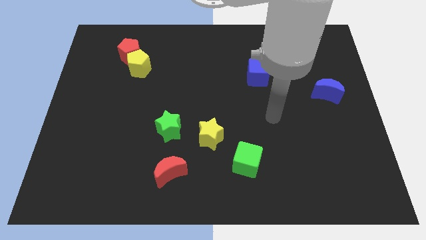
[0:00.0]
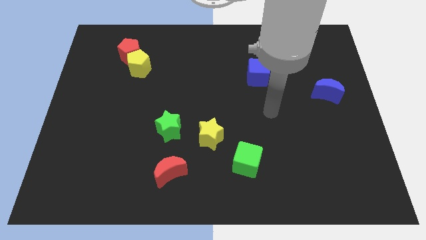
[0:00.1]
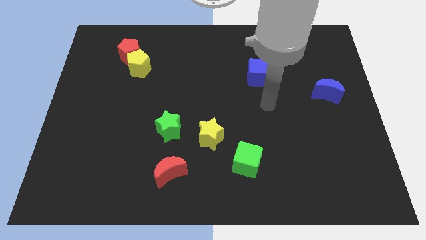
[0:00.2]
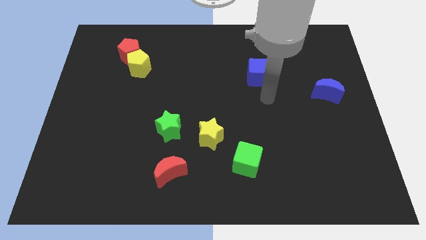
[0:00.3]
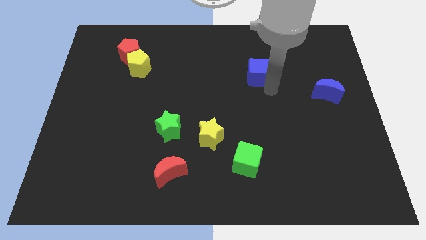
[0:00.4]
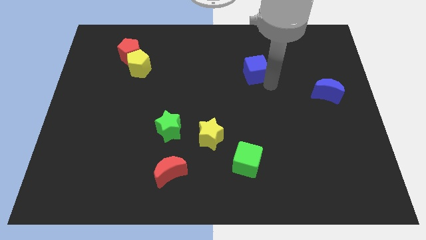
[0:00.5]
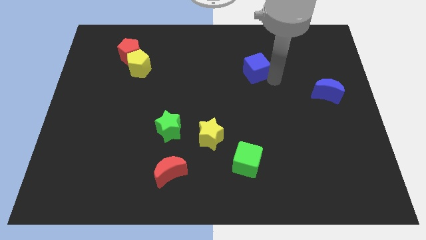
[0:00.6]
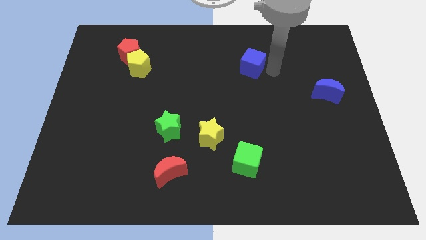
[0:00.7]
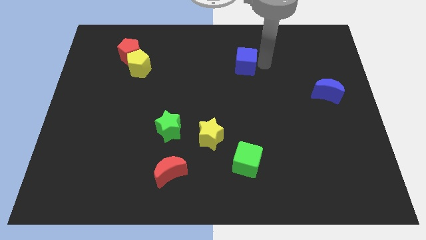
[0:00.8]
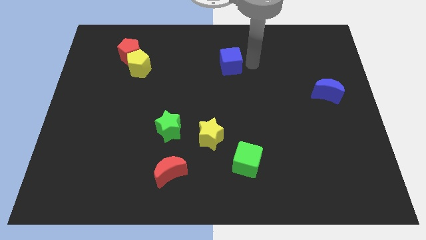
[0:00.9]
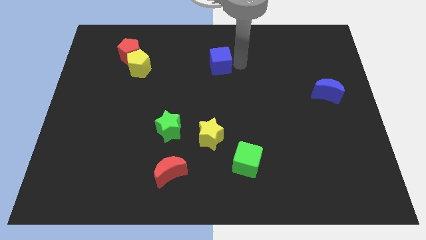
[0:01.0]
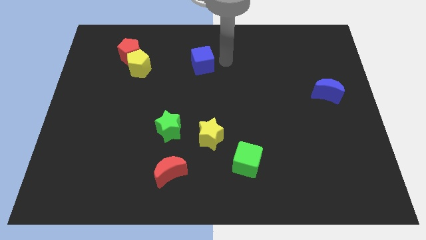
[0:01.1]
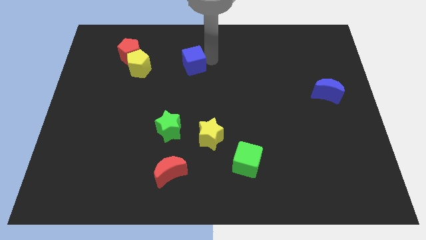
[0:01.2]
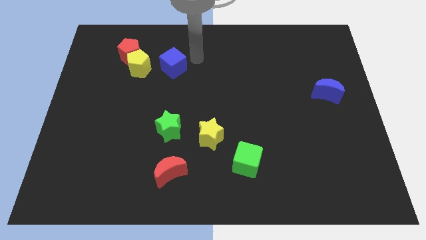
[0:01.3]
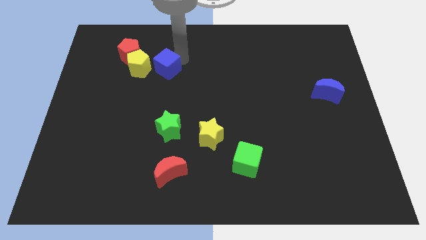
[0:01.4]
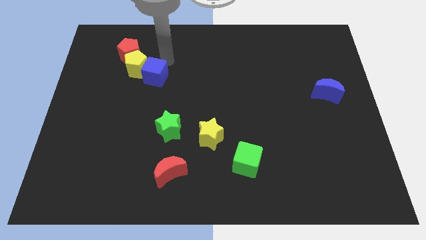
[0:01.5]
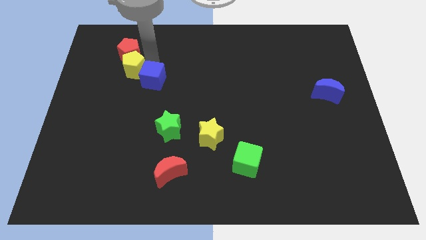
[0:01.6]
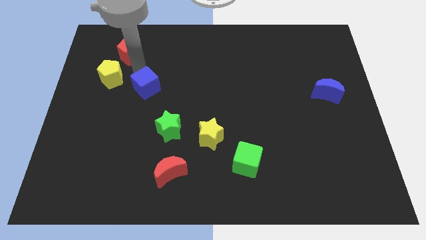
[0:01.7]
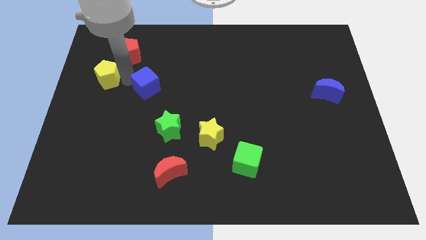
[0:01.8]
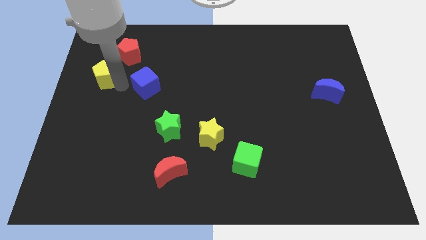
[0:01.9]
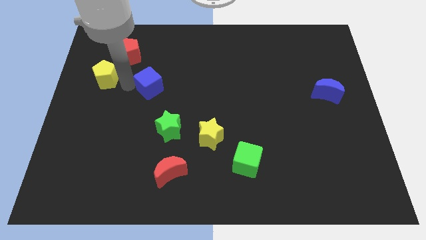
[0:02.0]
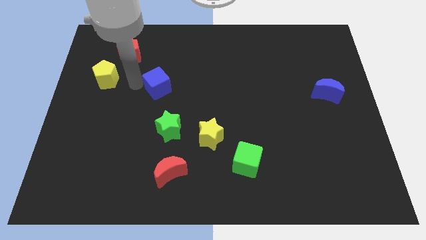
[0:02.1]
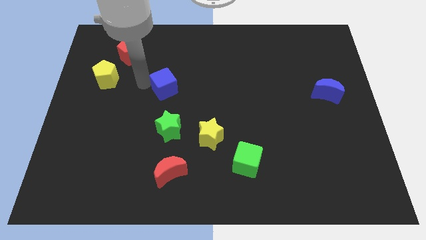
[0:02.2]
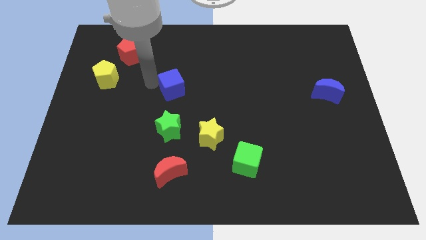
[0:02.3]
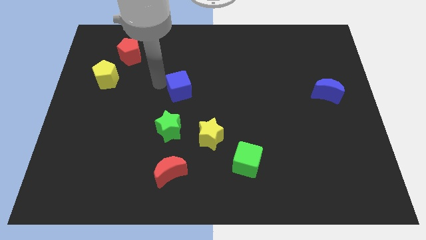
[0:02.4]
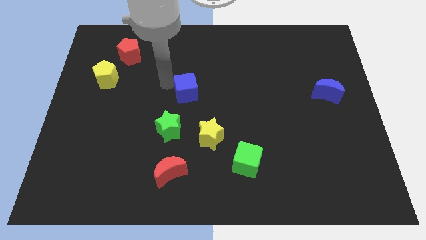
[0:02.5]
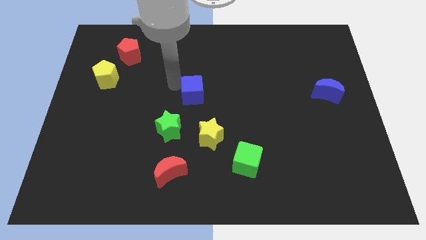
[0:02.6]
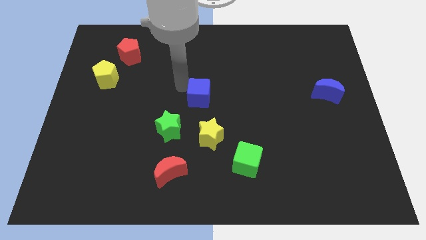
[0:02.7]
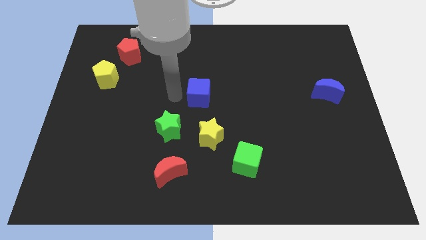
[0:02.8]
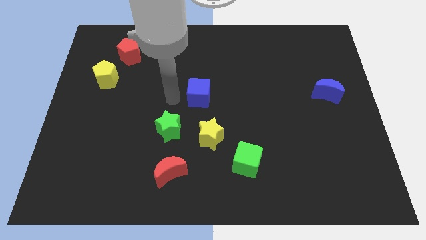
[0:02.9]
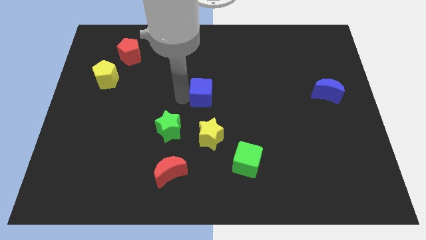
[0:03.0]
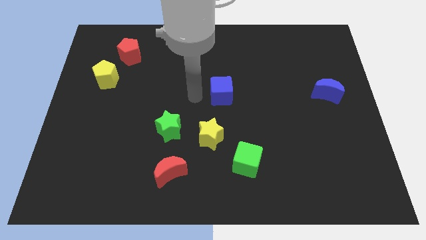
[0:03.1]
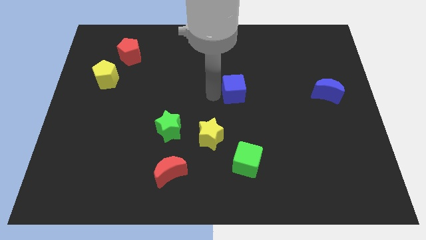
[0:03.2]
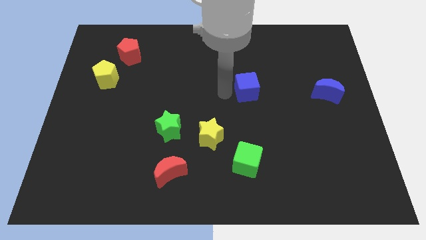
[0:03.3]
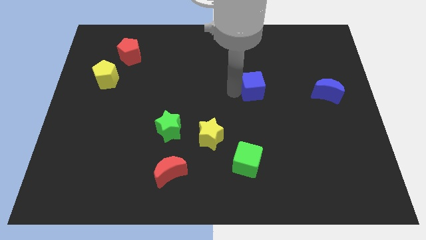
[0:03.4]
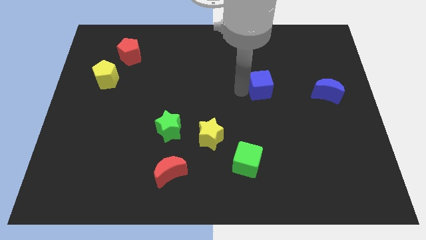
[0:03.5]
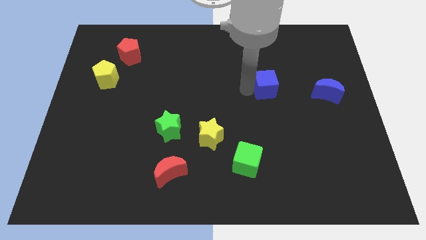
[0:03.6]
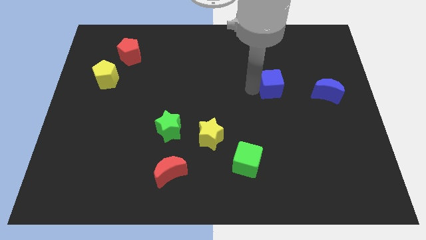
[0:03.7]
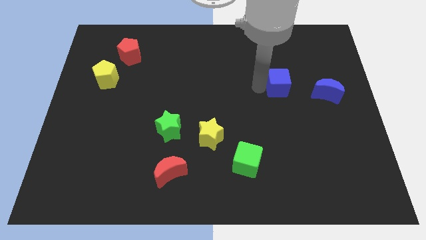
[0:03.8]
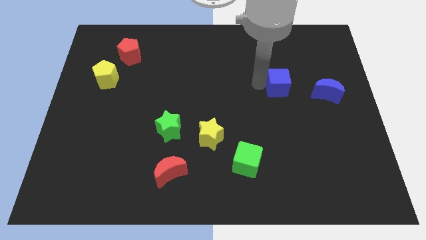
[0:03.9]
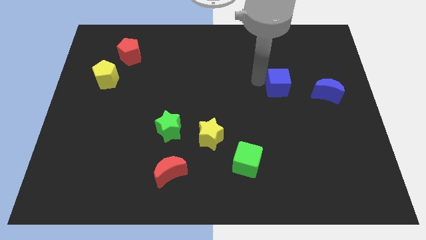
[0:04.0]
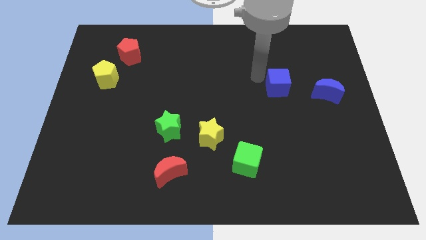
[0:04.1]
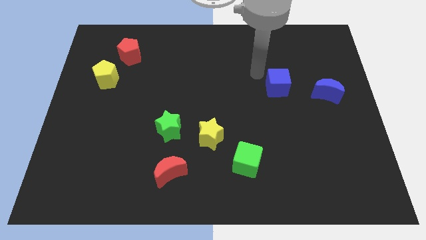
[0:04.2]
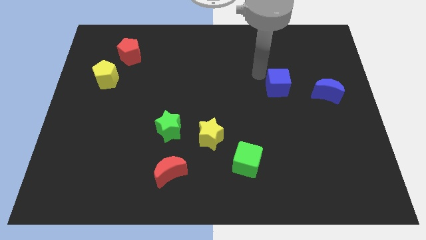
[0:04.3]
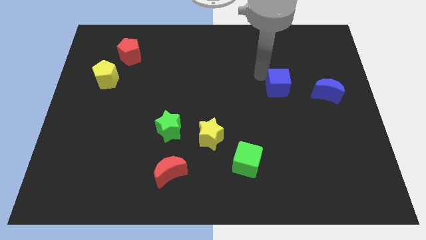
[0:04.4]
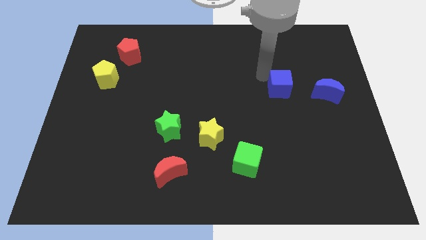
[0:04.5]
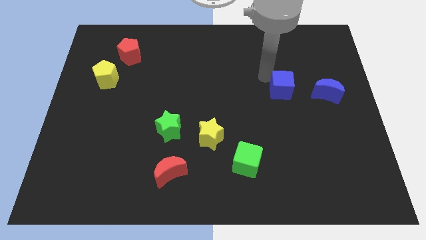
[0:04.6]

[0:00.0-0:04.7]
slightly slide the blue cube diagonally downwards and to the right

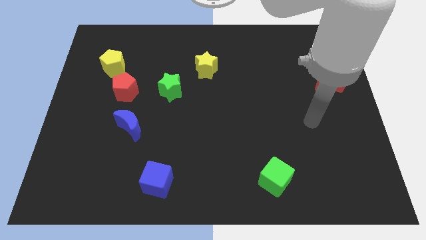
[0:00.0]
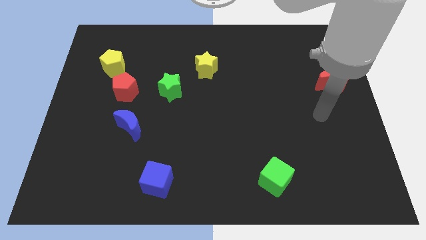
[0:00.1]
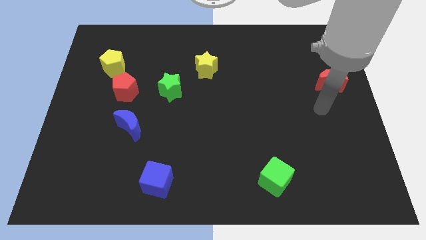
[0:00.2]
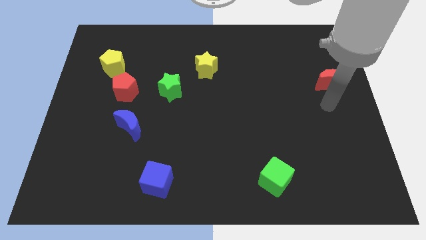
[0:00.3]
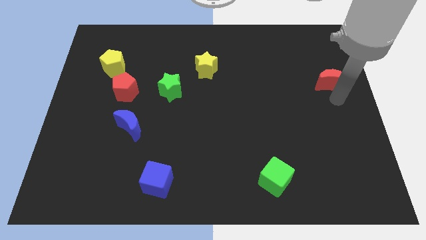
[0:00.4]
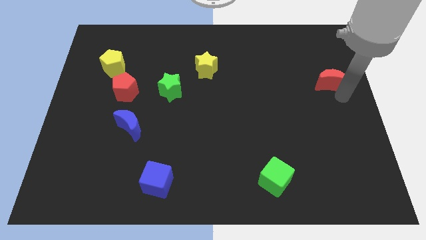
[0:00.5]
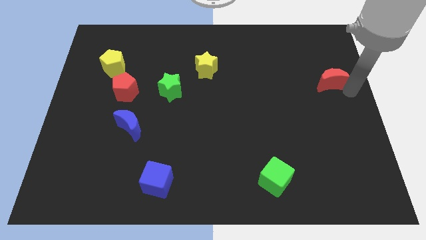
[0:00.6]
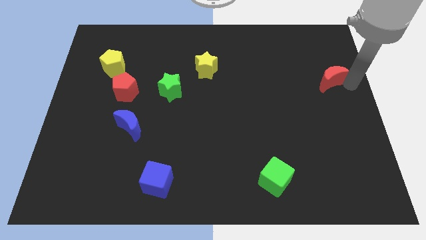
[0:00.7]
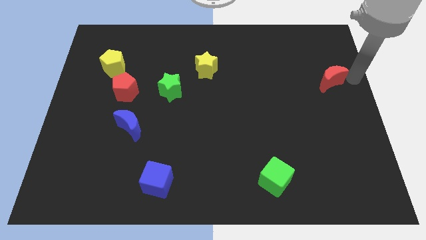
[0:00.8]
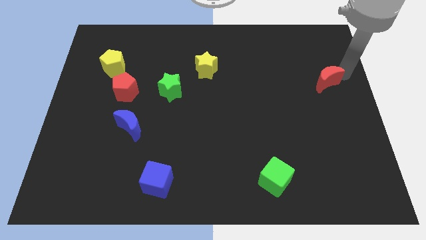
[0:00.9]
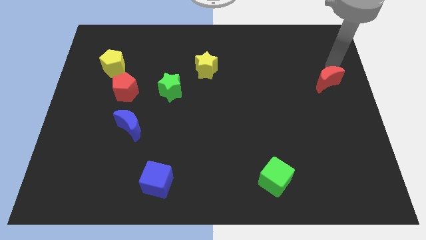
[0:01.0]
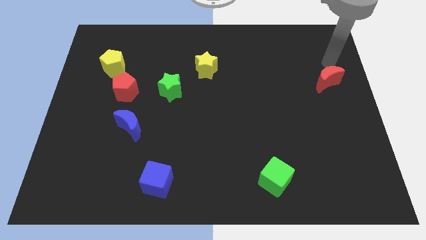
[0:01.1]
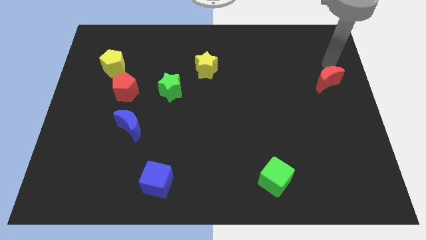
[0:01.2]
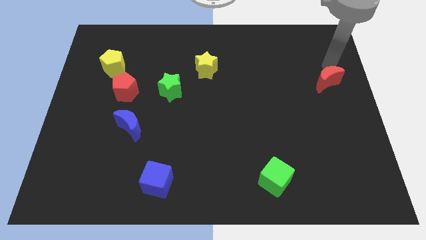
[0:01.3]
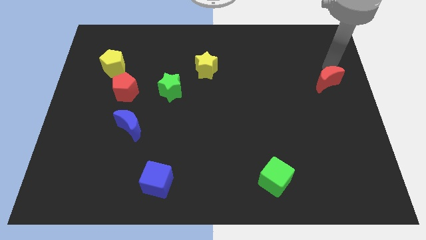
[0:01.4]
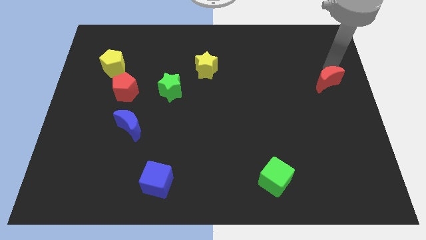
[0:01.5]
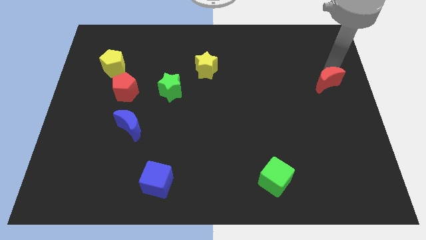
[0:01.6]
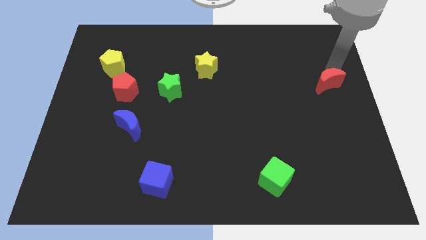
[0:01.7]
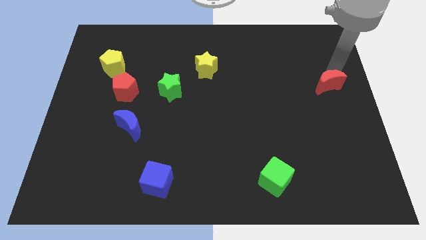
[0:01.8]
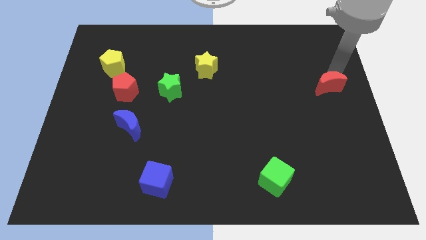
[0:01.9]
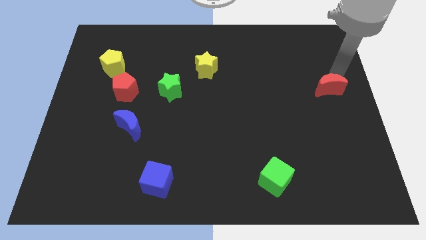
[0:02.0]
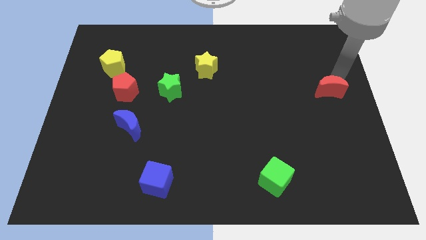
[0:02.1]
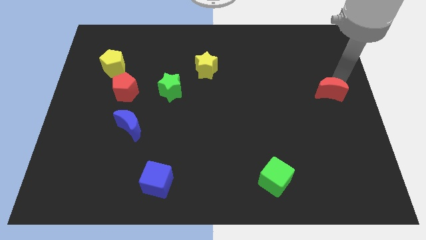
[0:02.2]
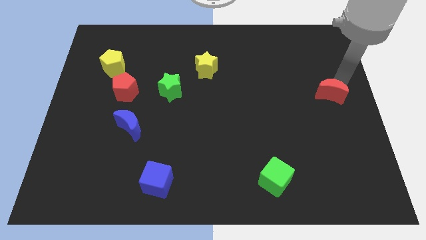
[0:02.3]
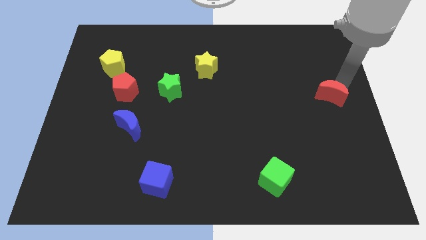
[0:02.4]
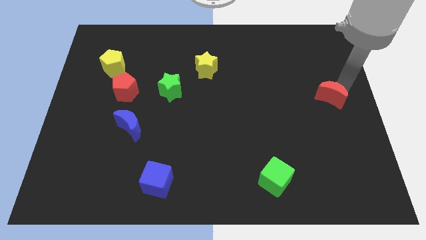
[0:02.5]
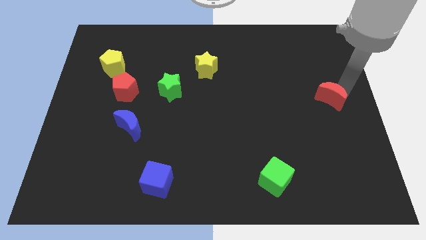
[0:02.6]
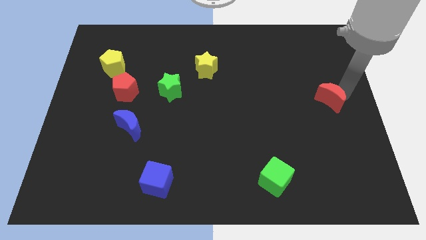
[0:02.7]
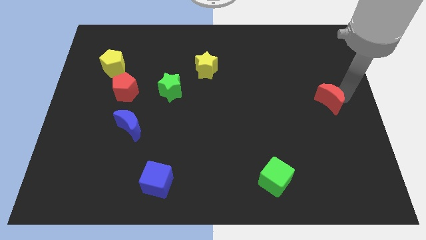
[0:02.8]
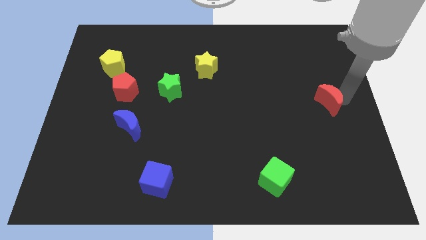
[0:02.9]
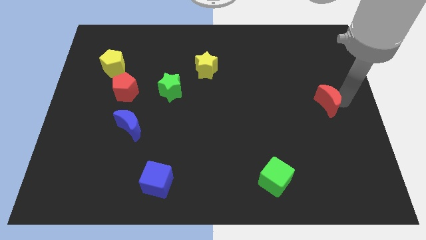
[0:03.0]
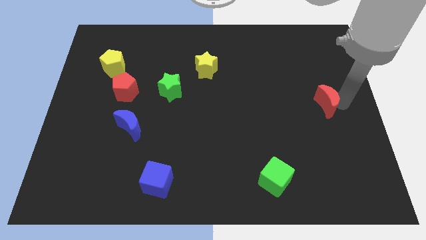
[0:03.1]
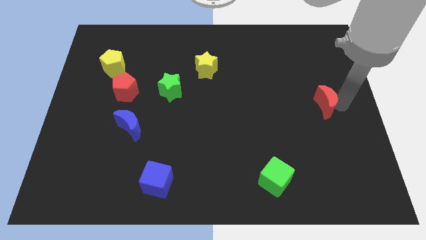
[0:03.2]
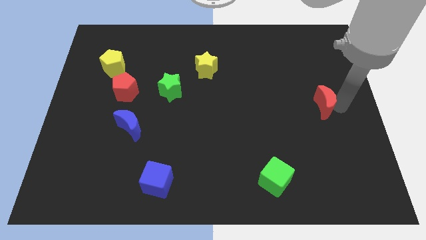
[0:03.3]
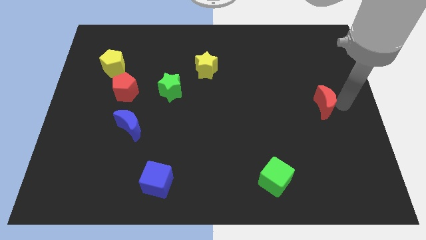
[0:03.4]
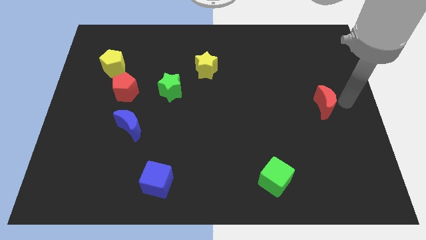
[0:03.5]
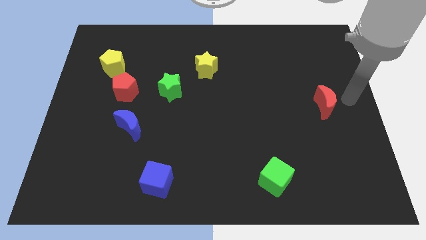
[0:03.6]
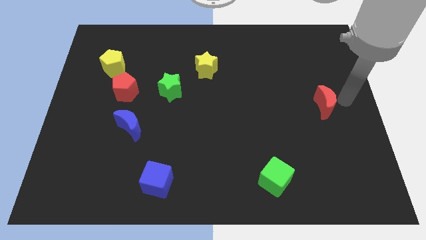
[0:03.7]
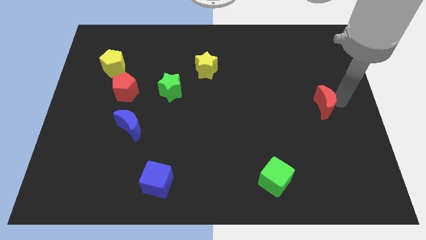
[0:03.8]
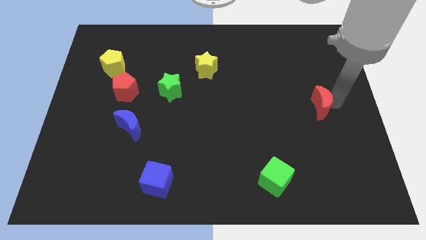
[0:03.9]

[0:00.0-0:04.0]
slightly move the red moon down and to the left
